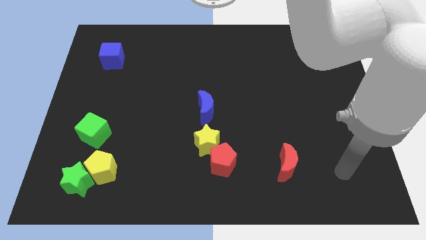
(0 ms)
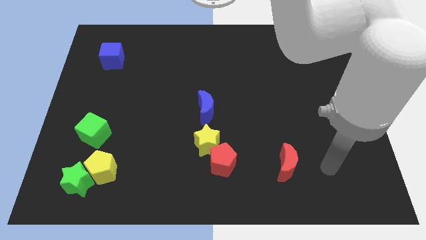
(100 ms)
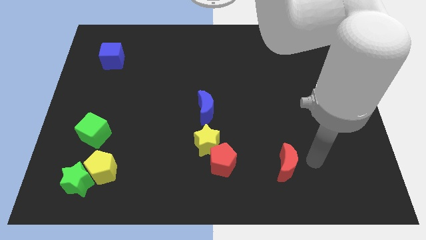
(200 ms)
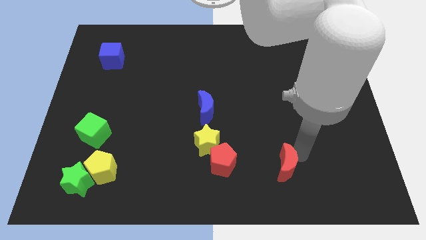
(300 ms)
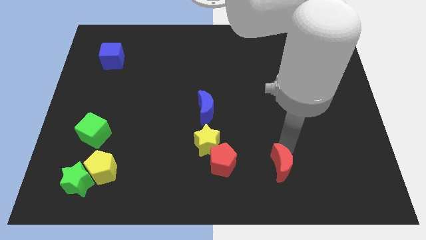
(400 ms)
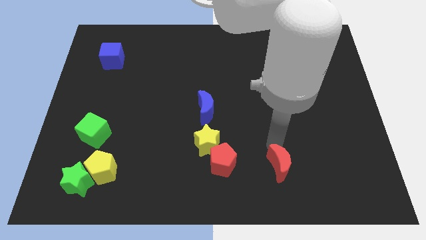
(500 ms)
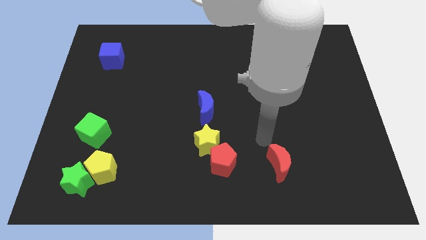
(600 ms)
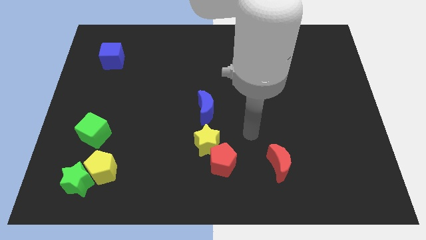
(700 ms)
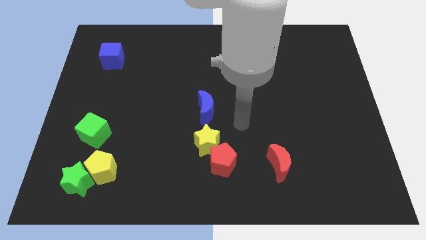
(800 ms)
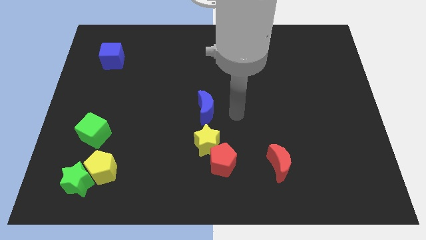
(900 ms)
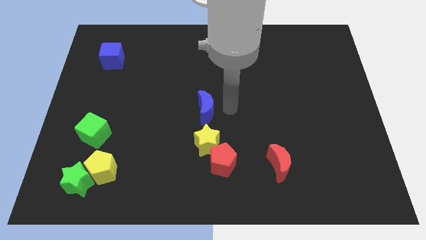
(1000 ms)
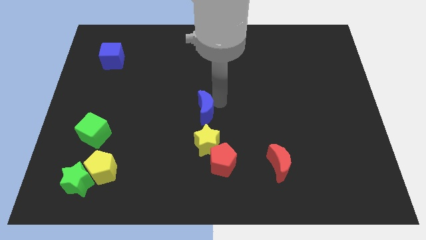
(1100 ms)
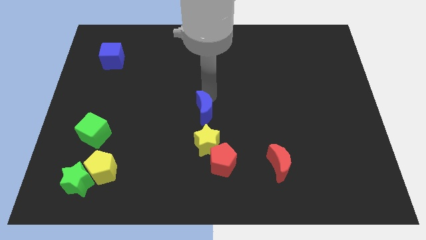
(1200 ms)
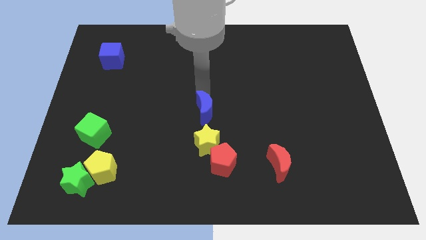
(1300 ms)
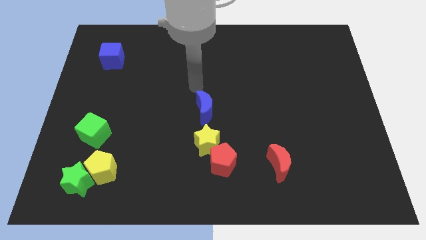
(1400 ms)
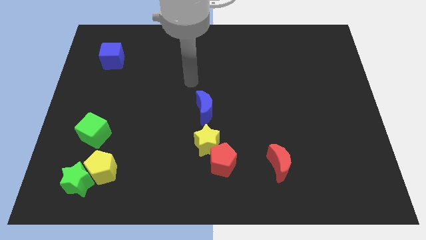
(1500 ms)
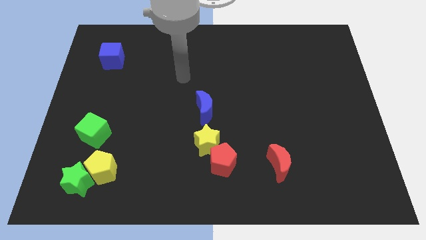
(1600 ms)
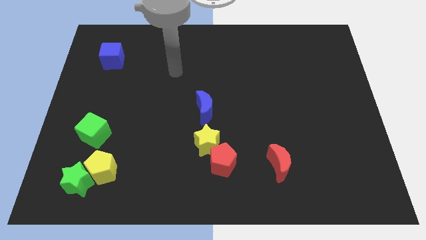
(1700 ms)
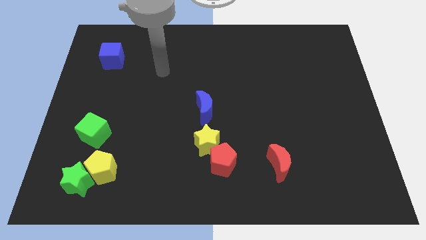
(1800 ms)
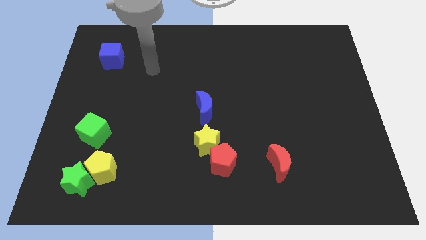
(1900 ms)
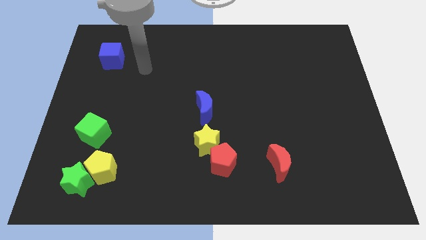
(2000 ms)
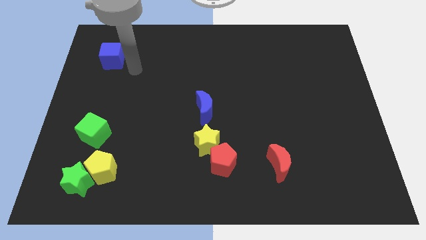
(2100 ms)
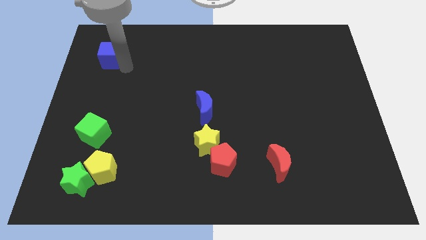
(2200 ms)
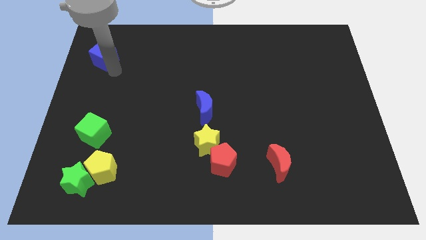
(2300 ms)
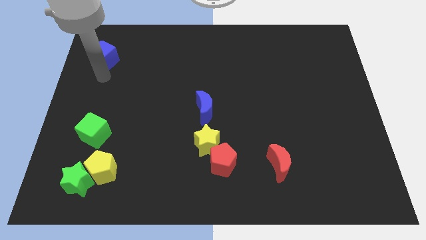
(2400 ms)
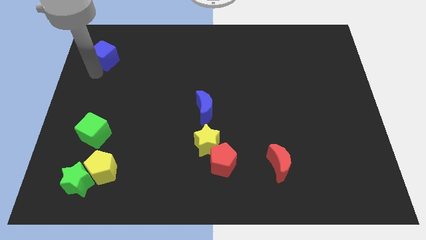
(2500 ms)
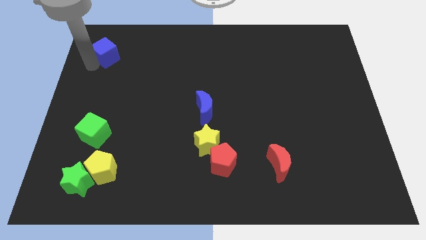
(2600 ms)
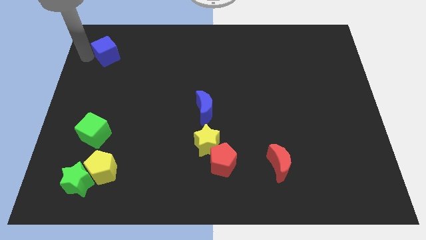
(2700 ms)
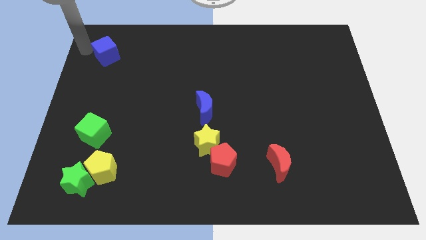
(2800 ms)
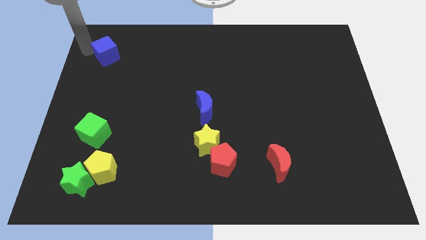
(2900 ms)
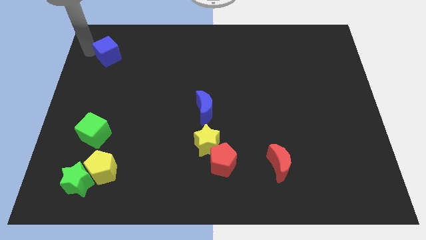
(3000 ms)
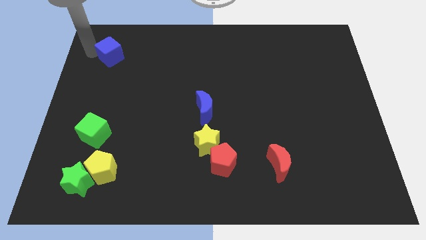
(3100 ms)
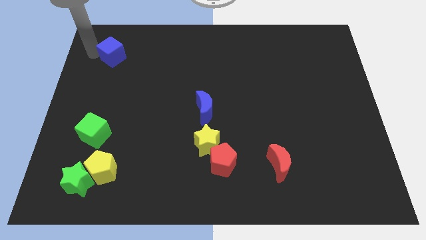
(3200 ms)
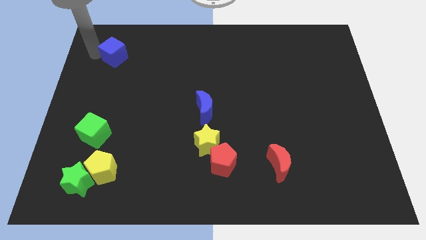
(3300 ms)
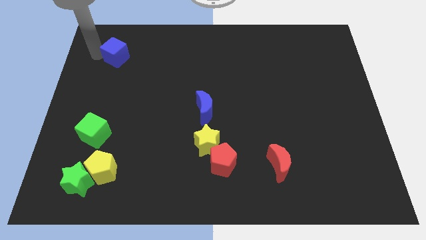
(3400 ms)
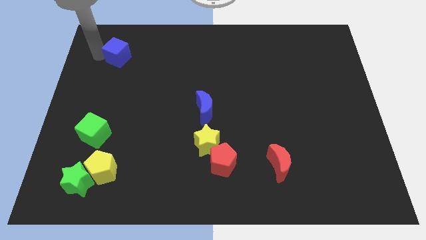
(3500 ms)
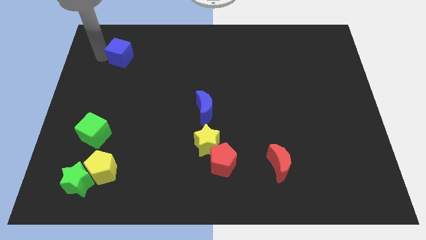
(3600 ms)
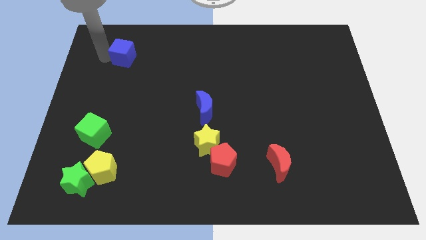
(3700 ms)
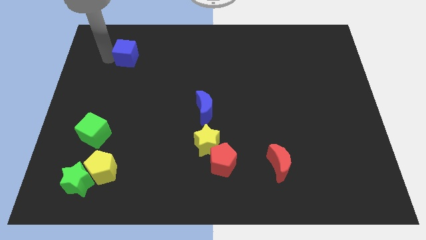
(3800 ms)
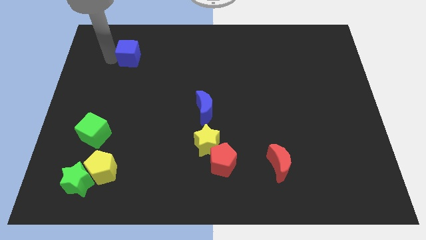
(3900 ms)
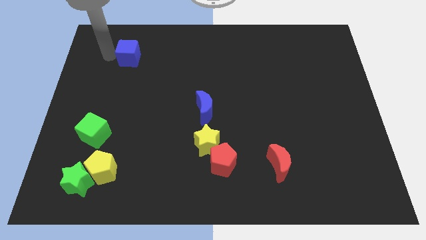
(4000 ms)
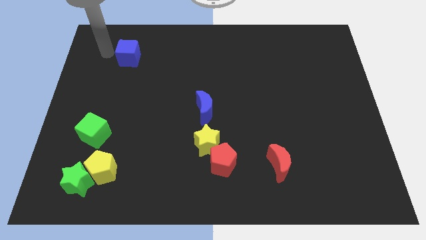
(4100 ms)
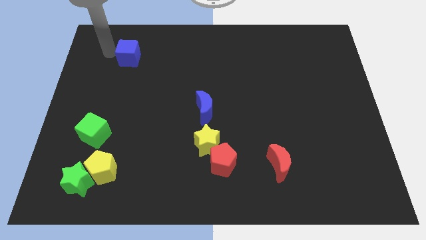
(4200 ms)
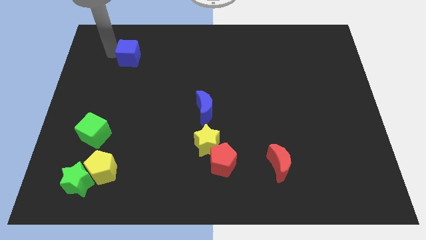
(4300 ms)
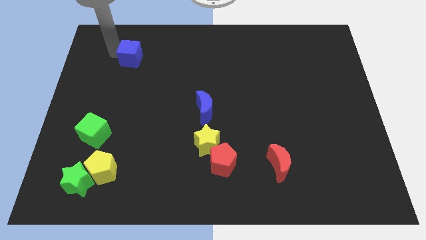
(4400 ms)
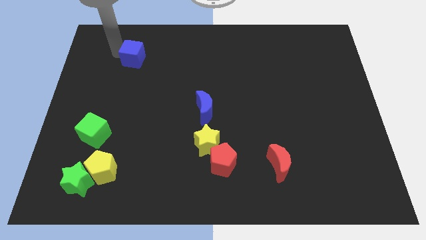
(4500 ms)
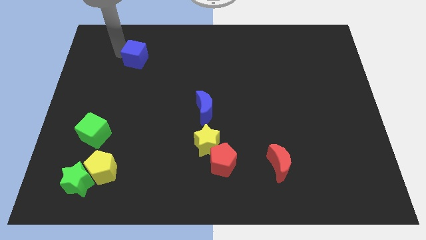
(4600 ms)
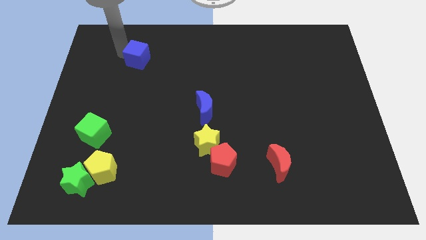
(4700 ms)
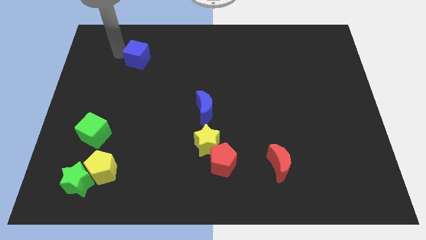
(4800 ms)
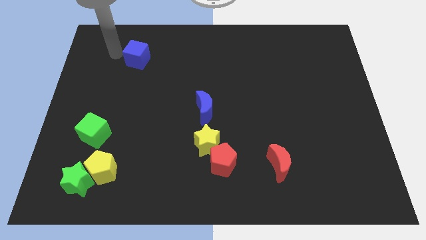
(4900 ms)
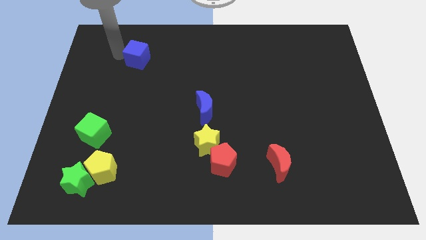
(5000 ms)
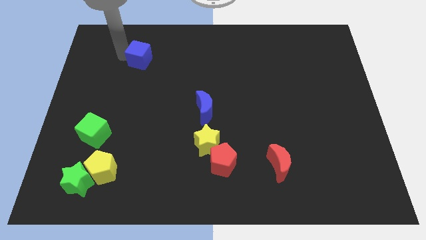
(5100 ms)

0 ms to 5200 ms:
slightly slide the blue cube to the right

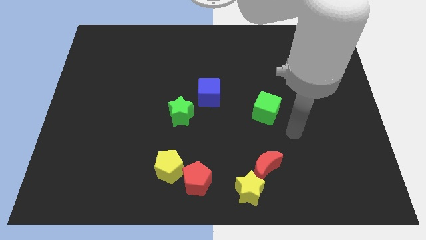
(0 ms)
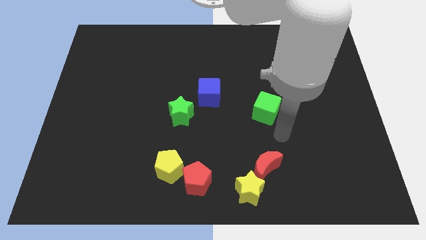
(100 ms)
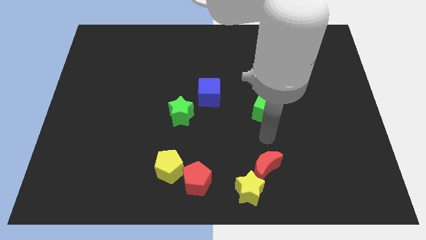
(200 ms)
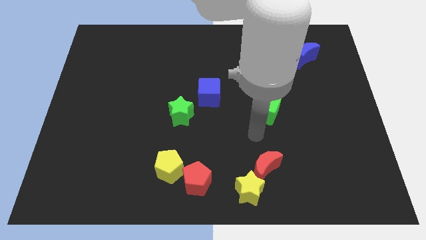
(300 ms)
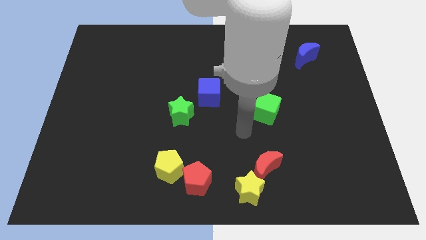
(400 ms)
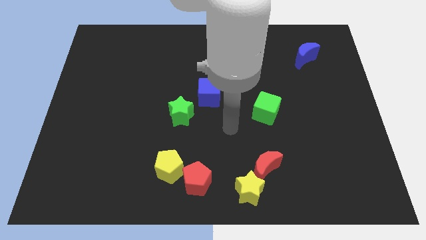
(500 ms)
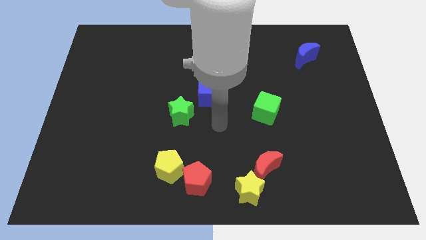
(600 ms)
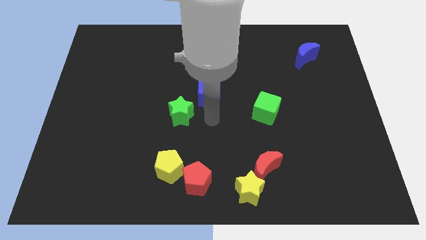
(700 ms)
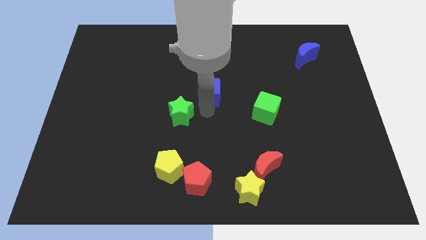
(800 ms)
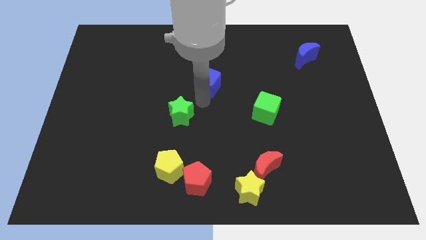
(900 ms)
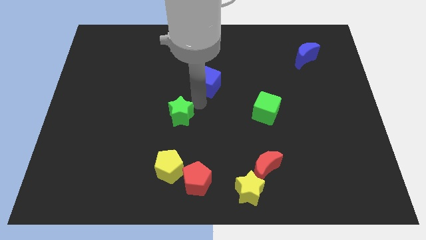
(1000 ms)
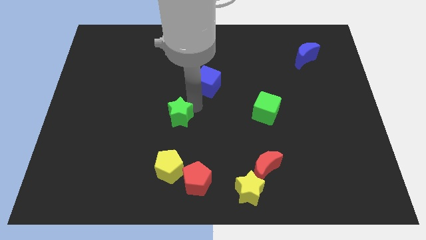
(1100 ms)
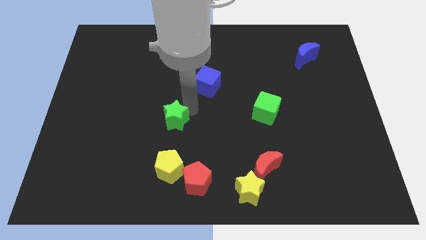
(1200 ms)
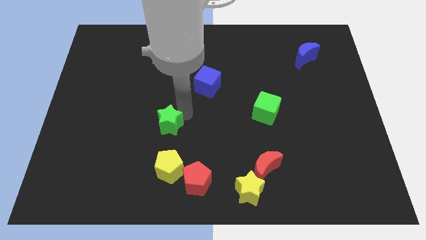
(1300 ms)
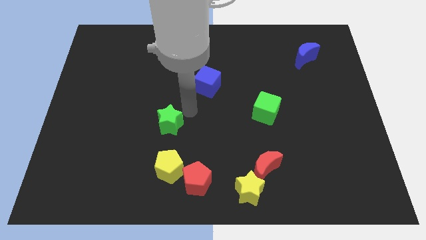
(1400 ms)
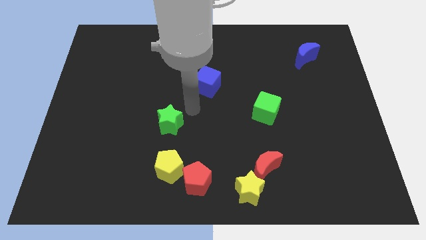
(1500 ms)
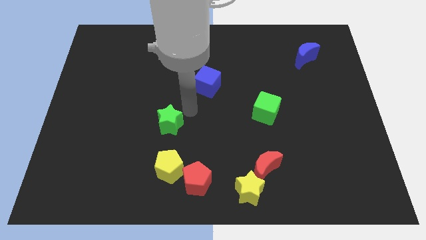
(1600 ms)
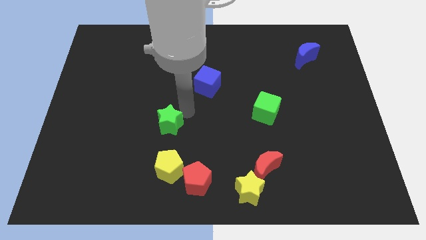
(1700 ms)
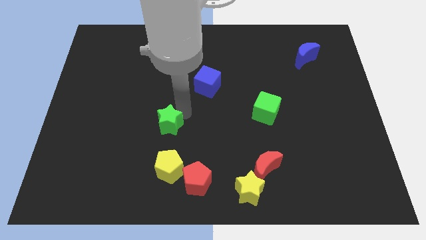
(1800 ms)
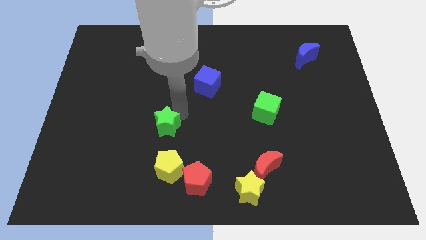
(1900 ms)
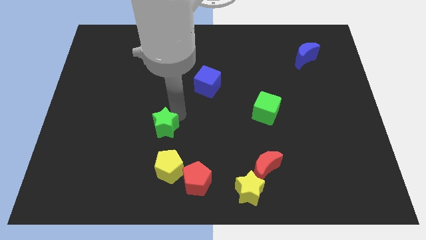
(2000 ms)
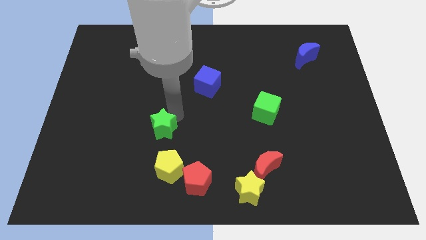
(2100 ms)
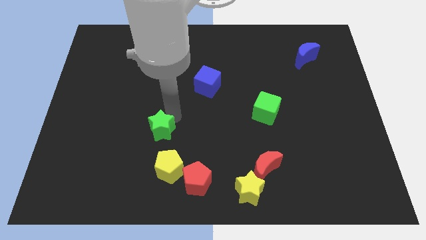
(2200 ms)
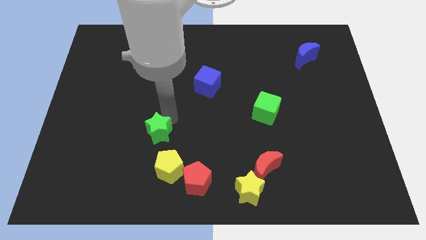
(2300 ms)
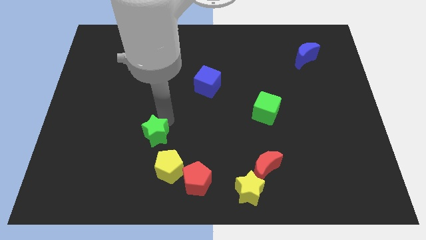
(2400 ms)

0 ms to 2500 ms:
slightly push the green star downwards and to the left

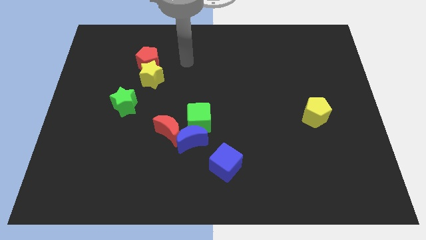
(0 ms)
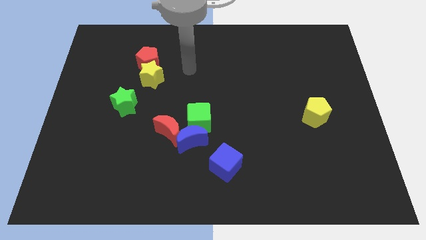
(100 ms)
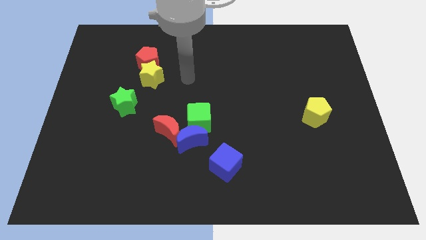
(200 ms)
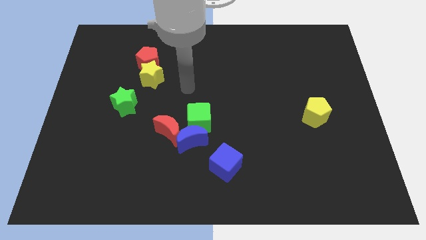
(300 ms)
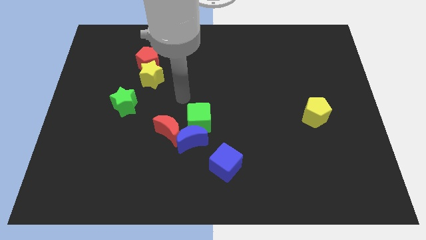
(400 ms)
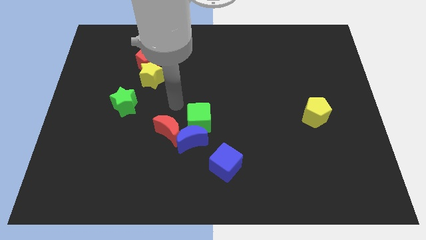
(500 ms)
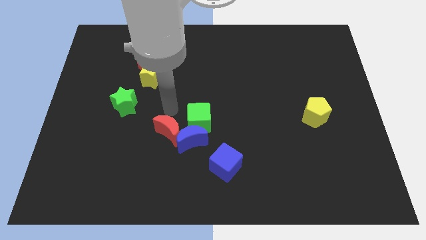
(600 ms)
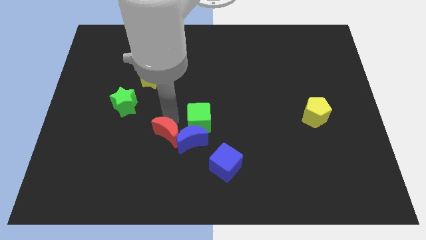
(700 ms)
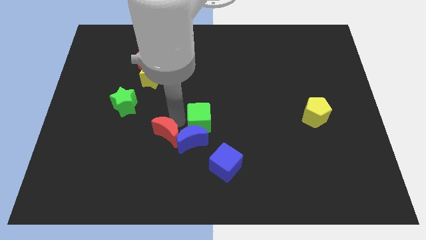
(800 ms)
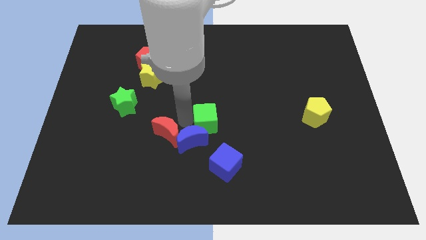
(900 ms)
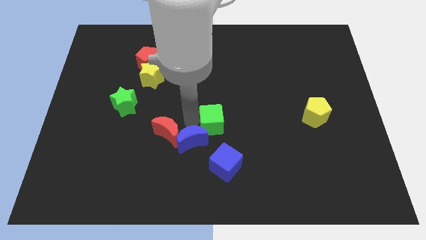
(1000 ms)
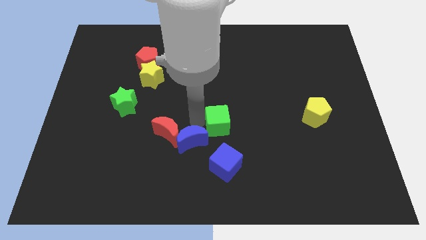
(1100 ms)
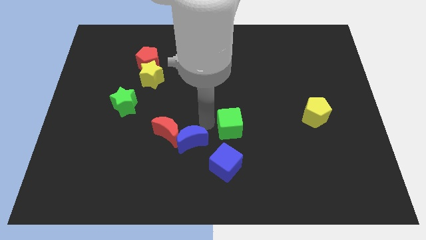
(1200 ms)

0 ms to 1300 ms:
slide the green cube a little bit to the right
